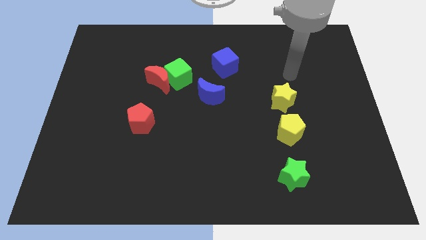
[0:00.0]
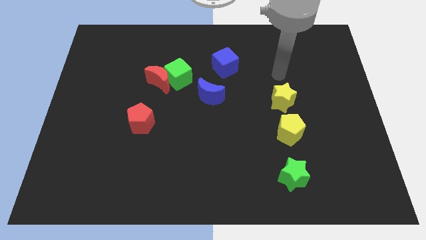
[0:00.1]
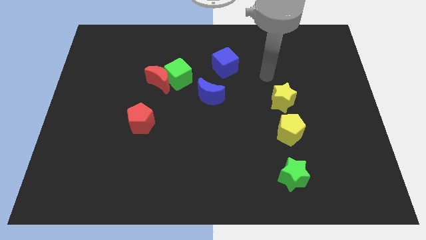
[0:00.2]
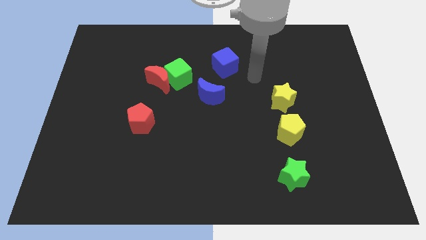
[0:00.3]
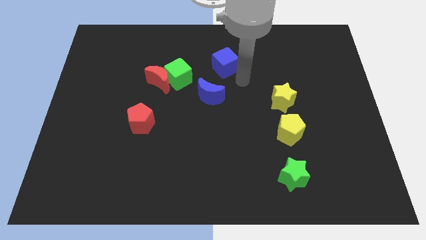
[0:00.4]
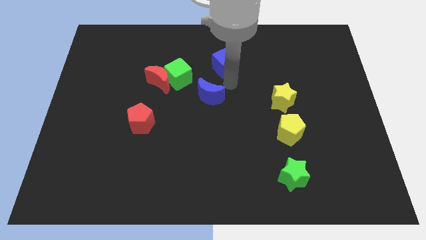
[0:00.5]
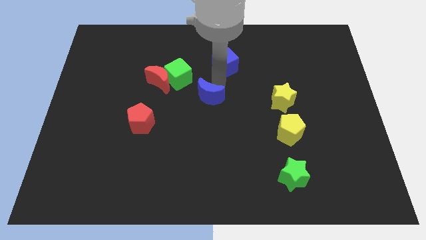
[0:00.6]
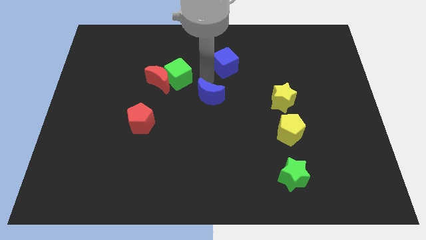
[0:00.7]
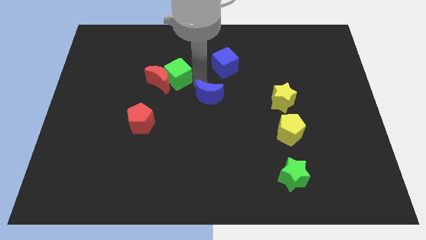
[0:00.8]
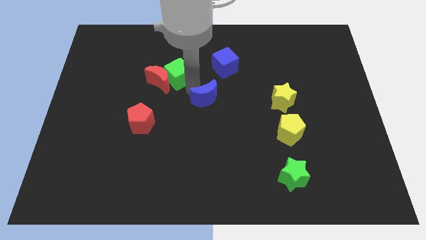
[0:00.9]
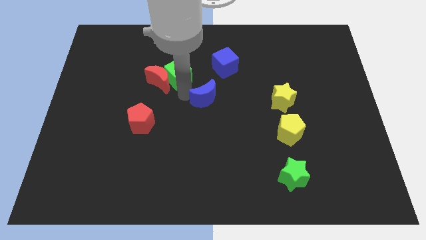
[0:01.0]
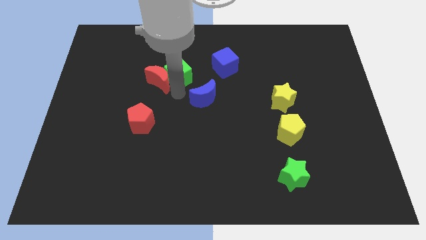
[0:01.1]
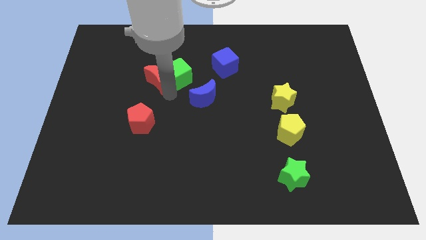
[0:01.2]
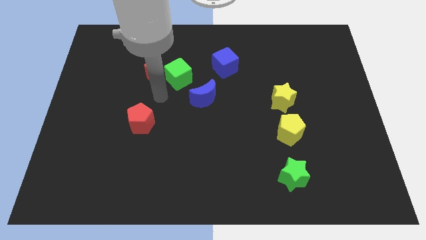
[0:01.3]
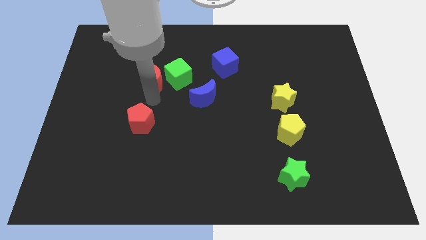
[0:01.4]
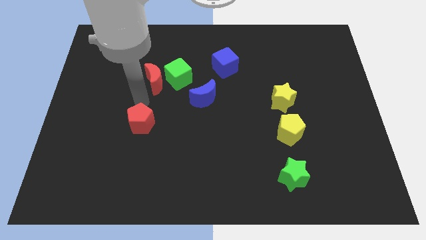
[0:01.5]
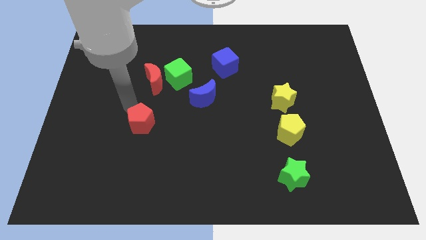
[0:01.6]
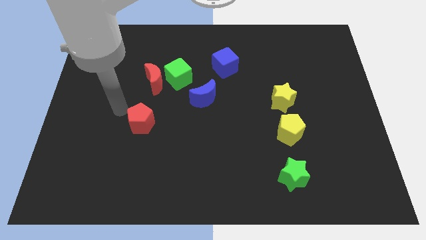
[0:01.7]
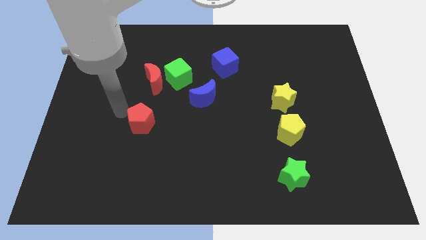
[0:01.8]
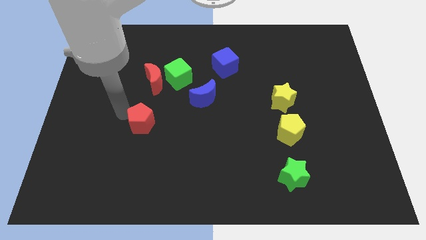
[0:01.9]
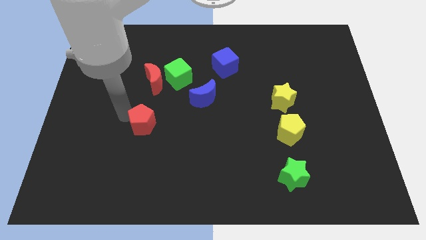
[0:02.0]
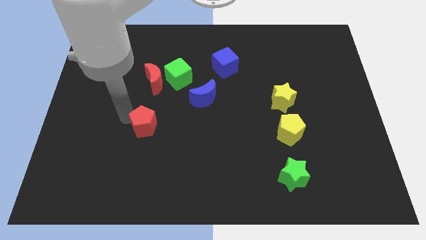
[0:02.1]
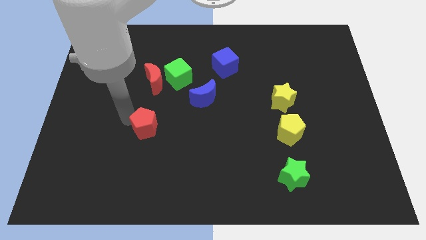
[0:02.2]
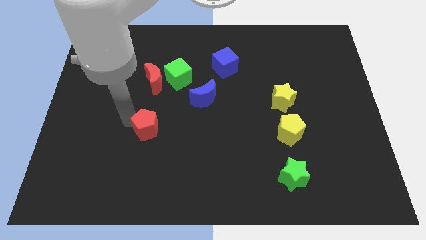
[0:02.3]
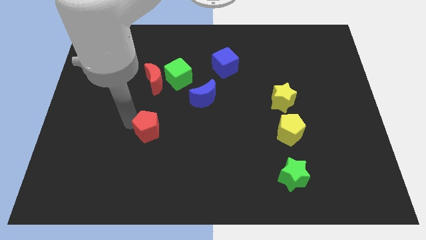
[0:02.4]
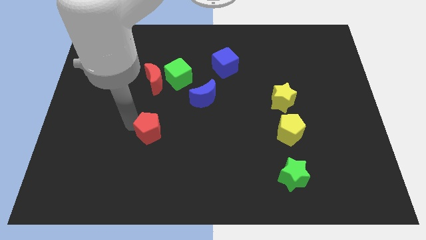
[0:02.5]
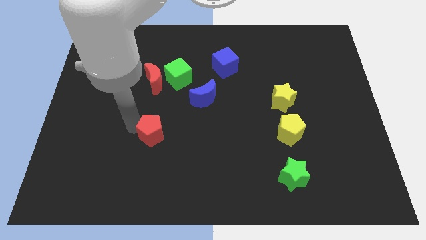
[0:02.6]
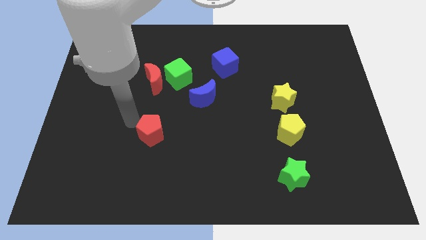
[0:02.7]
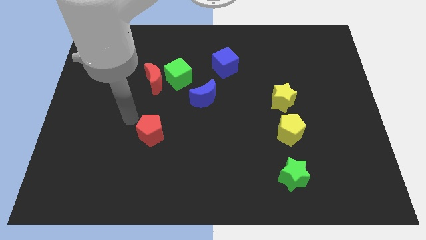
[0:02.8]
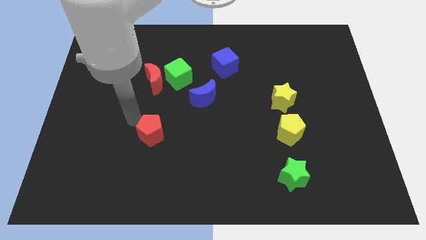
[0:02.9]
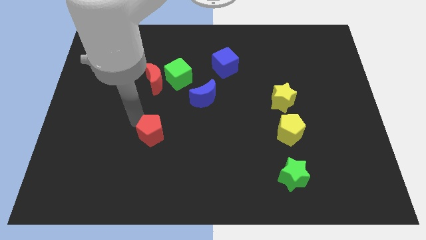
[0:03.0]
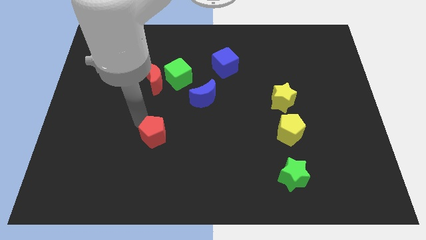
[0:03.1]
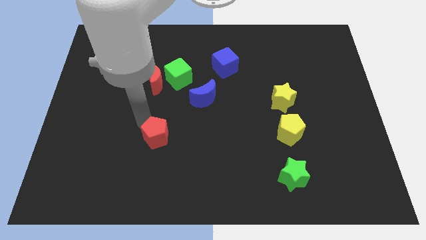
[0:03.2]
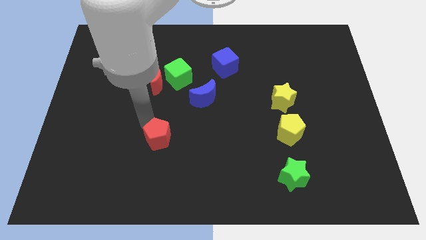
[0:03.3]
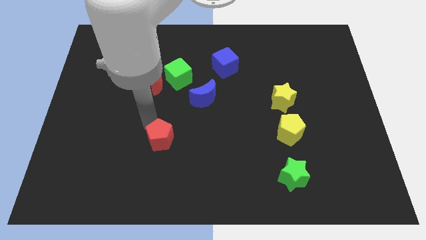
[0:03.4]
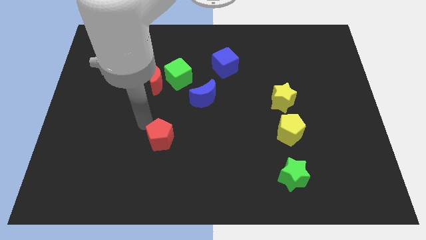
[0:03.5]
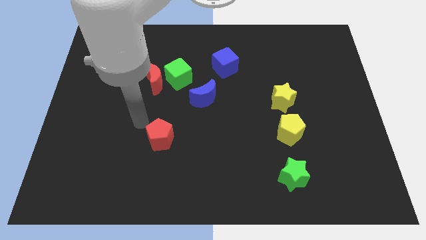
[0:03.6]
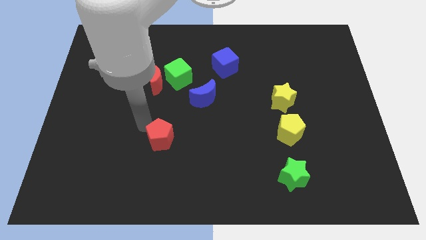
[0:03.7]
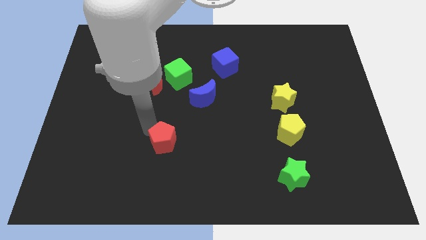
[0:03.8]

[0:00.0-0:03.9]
push the red pentagon a little diagonally down and to the right

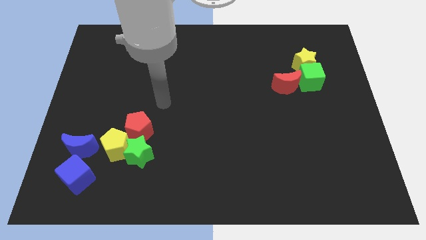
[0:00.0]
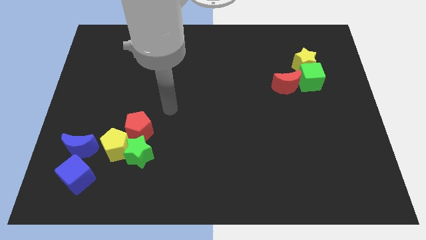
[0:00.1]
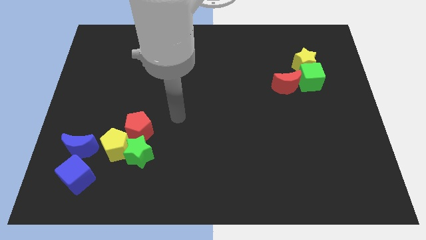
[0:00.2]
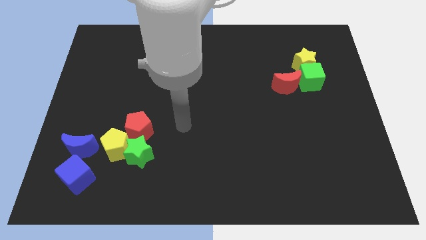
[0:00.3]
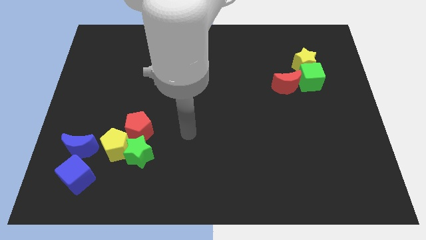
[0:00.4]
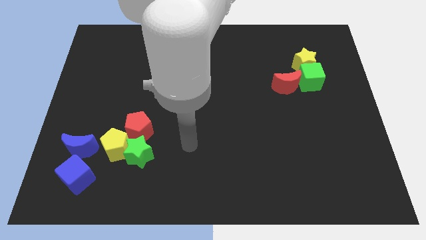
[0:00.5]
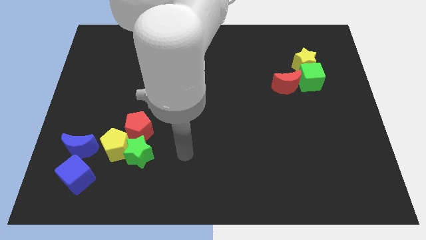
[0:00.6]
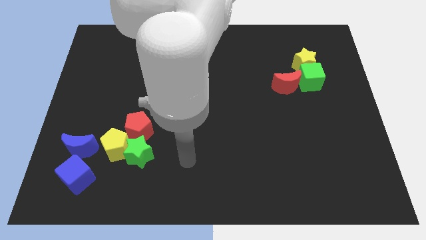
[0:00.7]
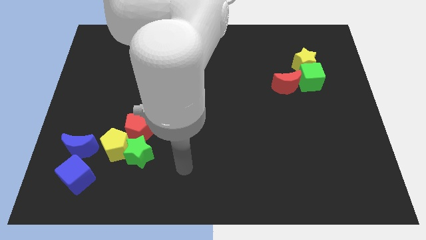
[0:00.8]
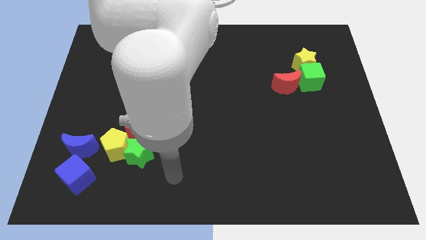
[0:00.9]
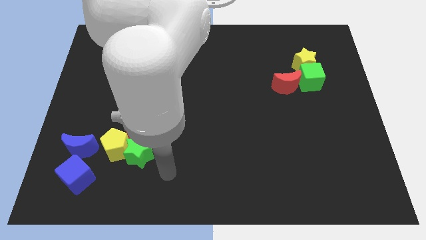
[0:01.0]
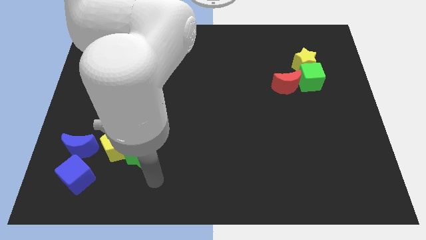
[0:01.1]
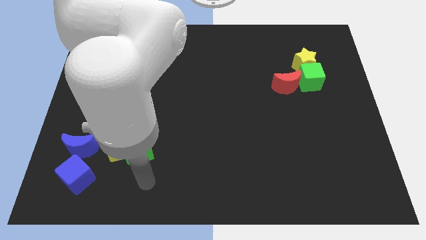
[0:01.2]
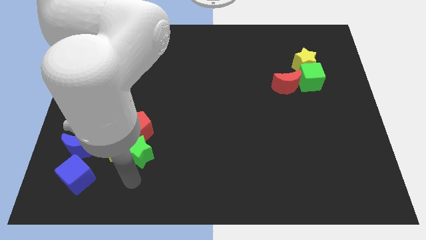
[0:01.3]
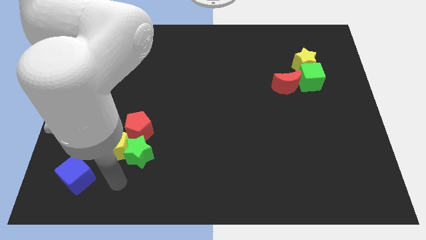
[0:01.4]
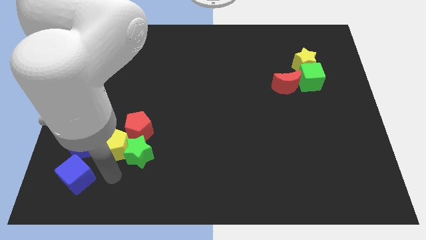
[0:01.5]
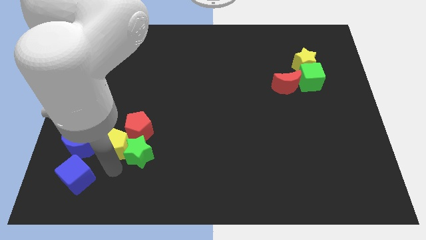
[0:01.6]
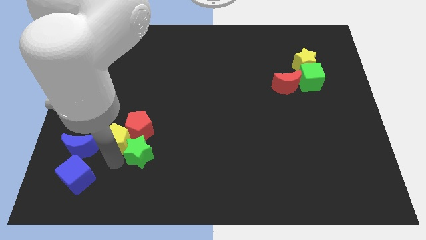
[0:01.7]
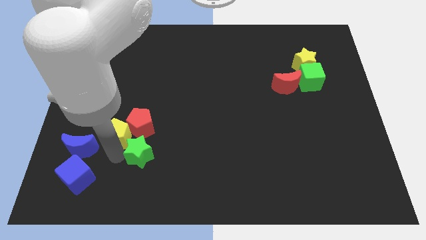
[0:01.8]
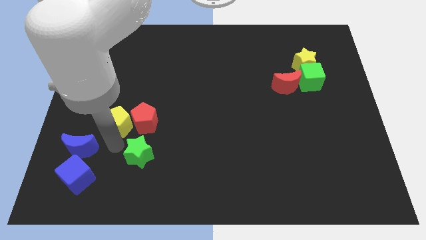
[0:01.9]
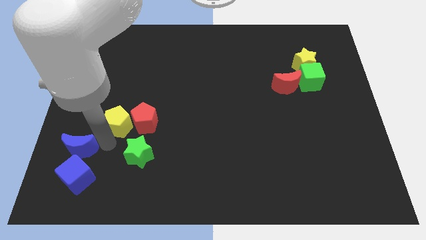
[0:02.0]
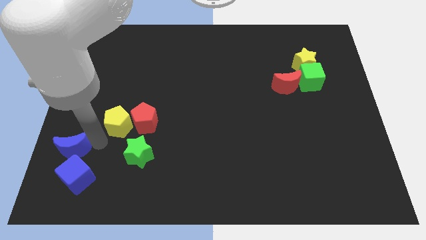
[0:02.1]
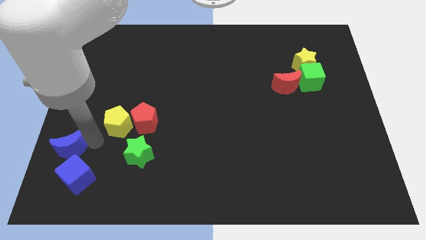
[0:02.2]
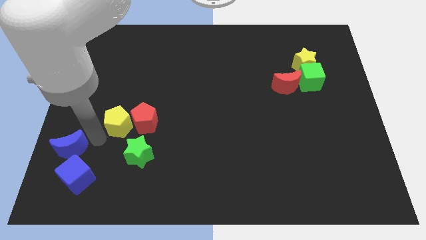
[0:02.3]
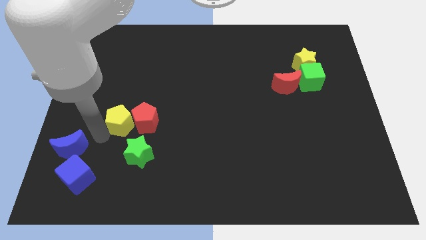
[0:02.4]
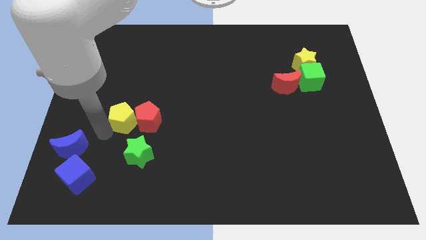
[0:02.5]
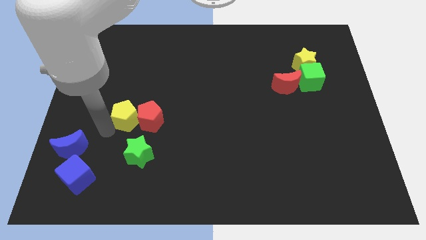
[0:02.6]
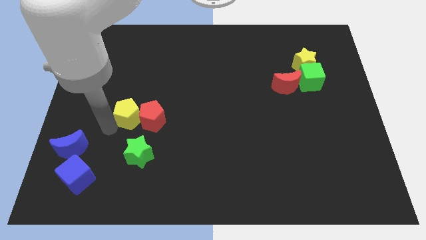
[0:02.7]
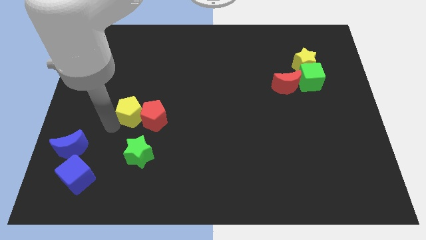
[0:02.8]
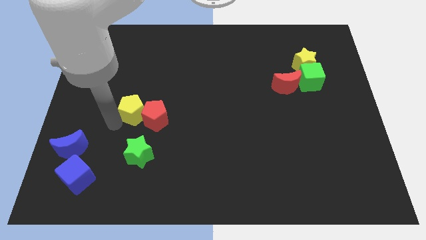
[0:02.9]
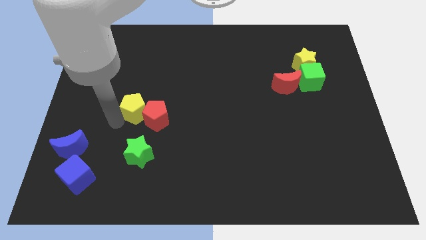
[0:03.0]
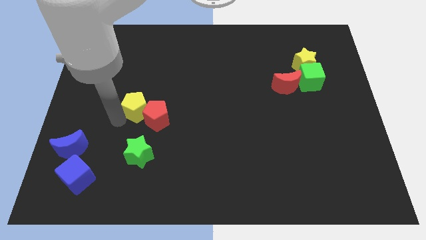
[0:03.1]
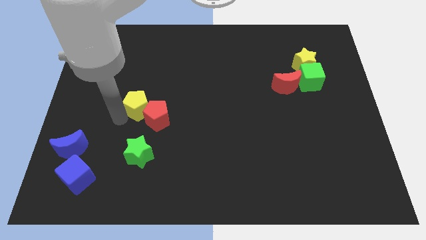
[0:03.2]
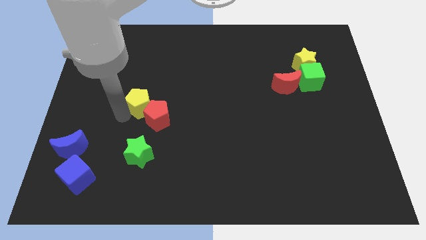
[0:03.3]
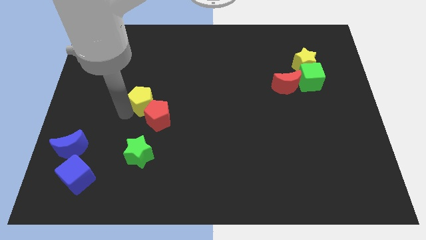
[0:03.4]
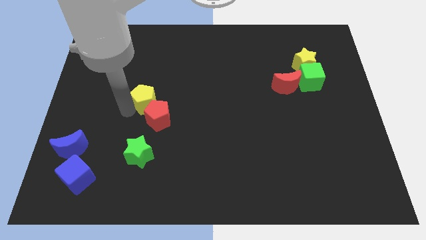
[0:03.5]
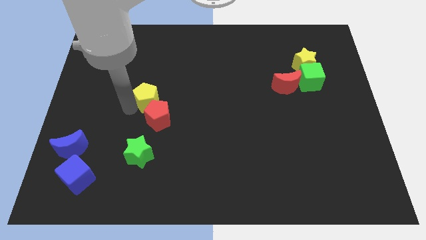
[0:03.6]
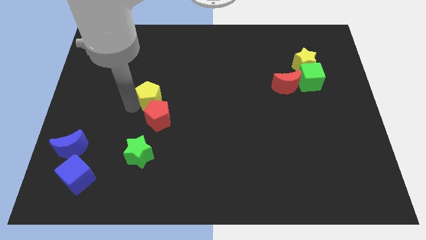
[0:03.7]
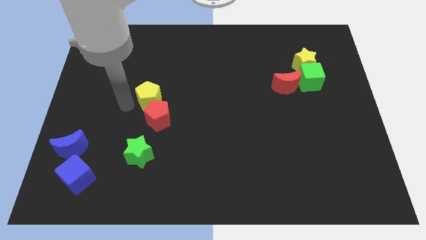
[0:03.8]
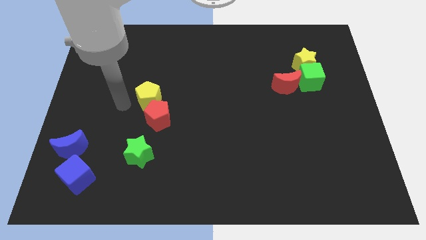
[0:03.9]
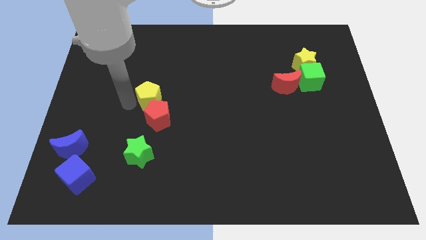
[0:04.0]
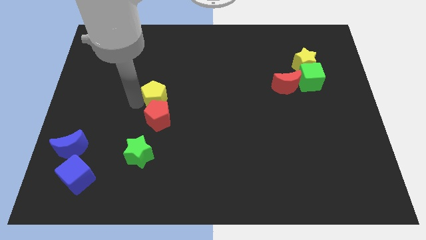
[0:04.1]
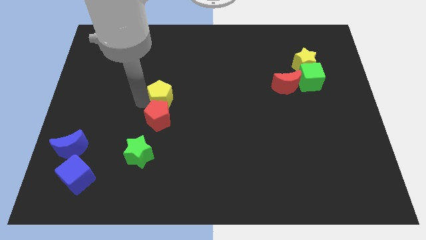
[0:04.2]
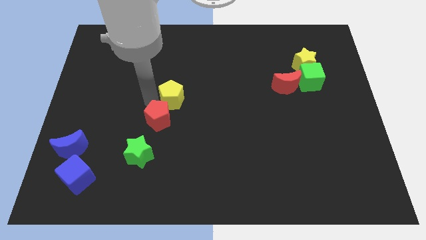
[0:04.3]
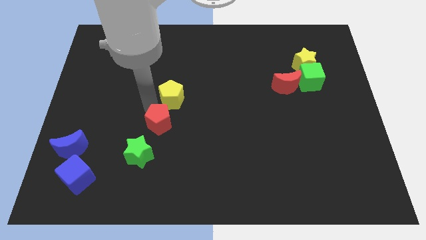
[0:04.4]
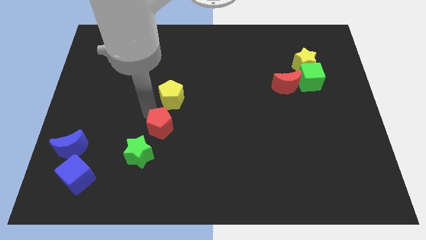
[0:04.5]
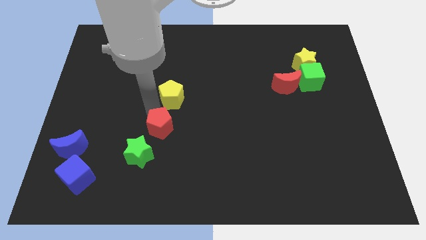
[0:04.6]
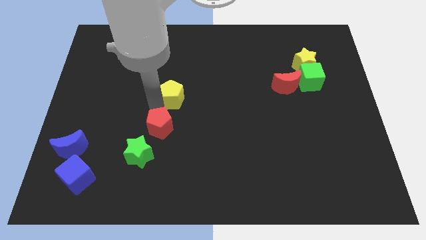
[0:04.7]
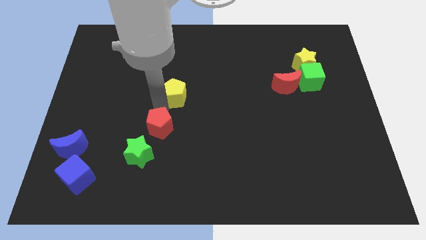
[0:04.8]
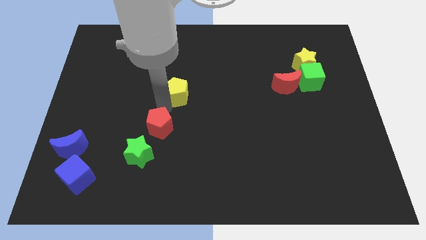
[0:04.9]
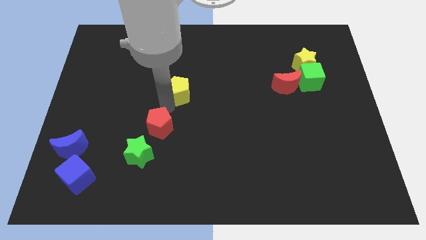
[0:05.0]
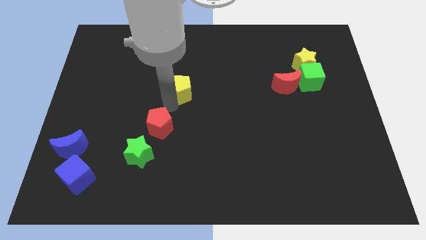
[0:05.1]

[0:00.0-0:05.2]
push the yellow pentagon up and then right
